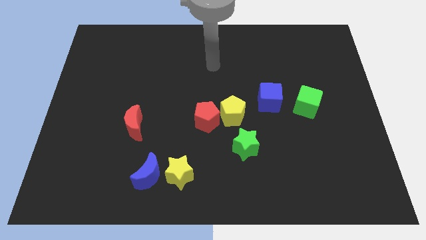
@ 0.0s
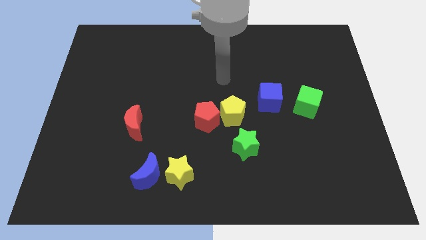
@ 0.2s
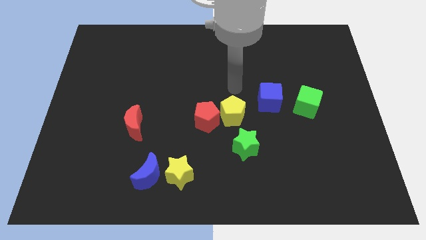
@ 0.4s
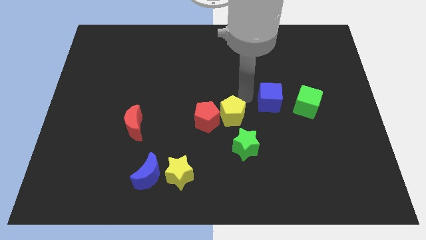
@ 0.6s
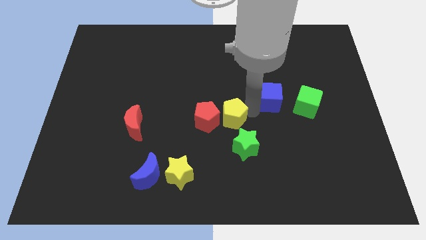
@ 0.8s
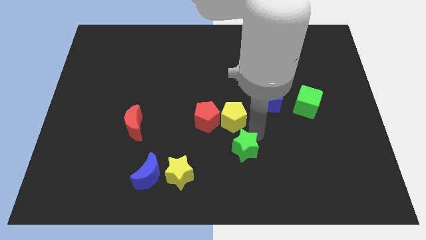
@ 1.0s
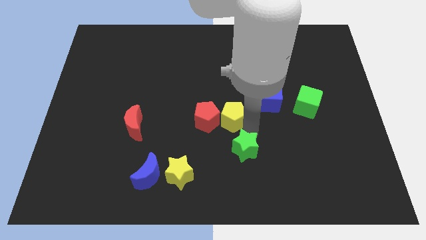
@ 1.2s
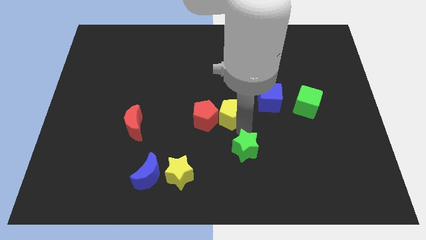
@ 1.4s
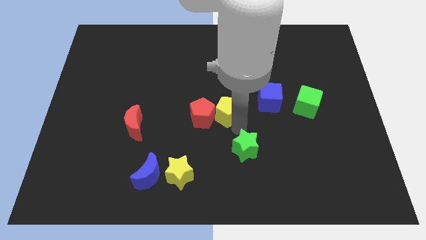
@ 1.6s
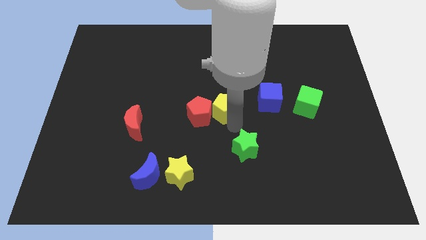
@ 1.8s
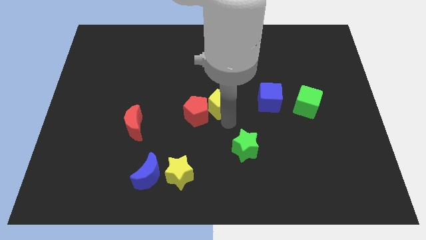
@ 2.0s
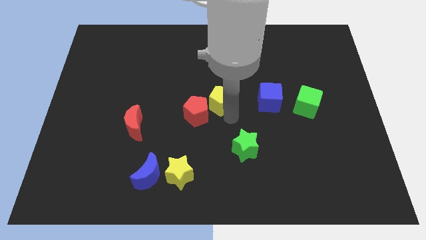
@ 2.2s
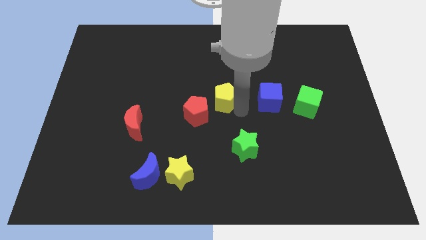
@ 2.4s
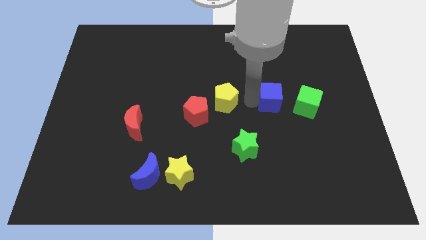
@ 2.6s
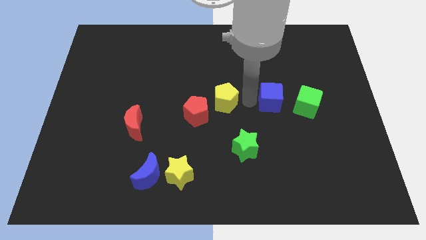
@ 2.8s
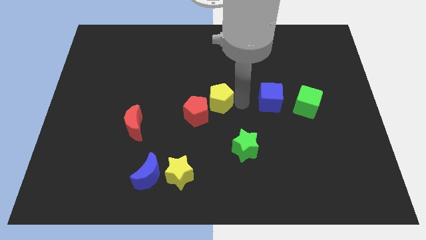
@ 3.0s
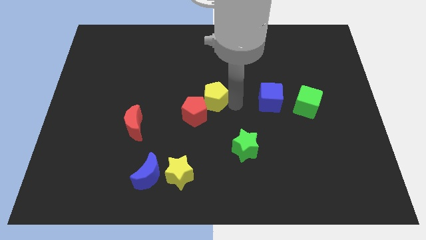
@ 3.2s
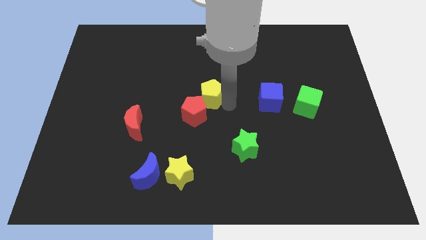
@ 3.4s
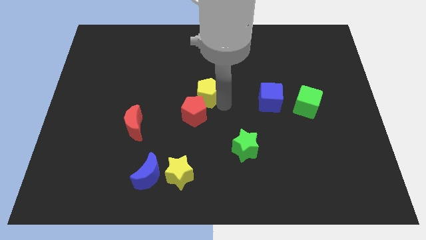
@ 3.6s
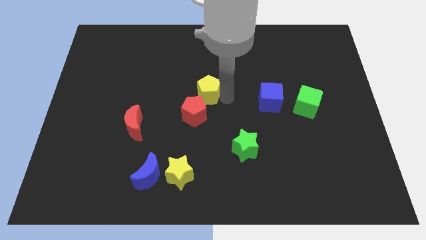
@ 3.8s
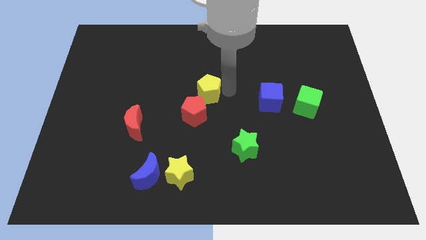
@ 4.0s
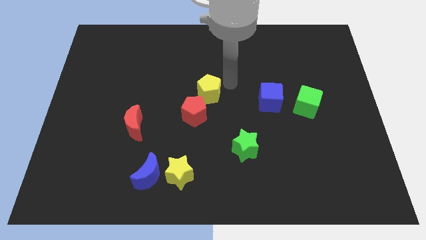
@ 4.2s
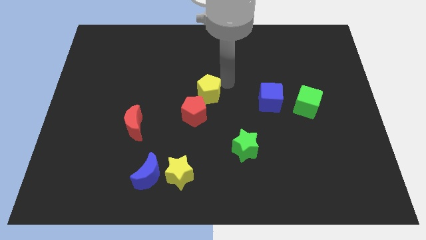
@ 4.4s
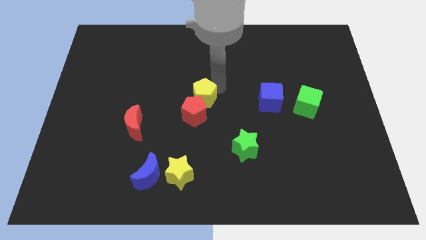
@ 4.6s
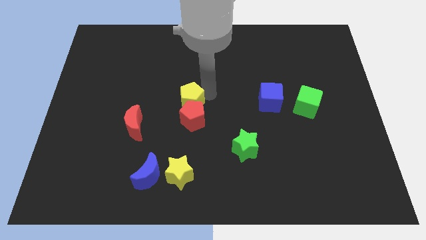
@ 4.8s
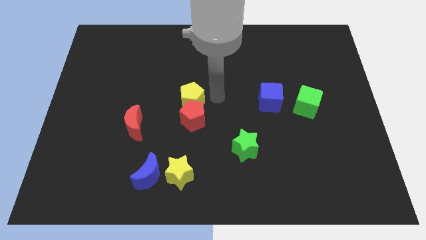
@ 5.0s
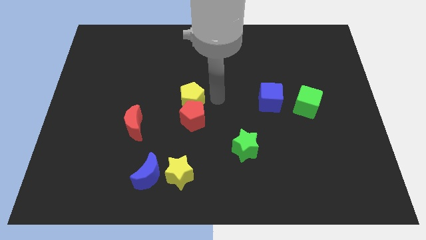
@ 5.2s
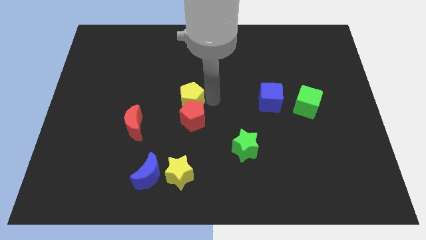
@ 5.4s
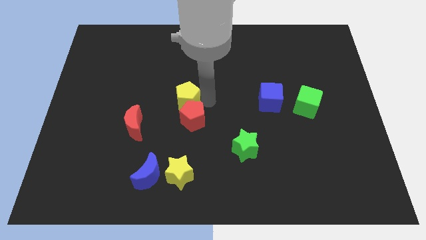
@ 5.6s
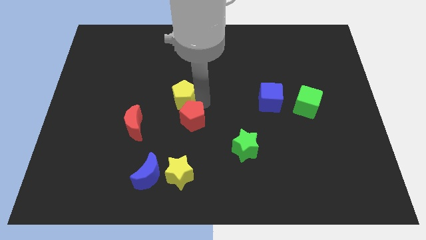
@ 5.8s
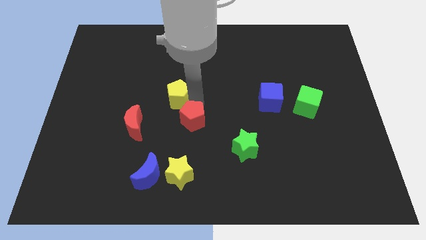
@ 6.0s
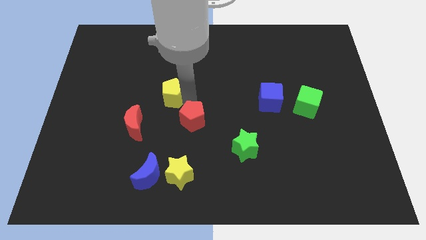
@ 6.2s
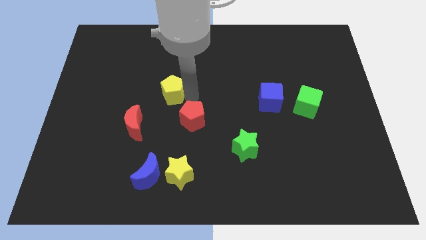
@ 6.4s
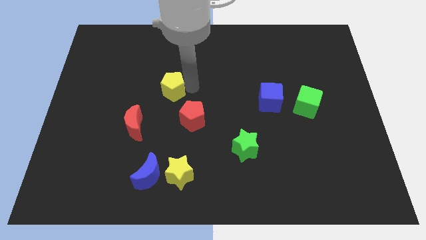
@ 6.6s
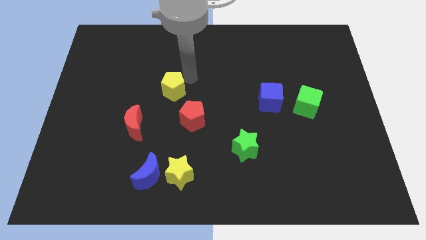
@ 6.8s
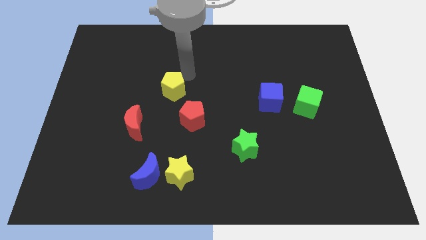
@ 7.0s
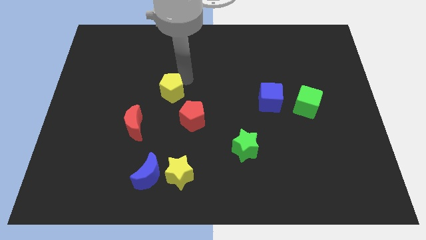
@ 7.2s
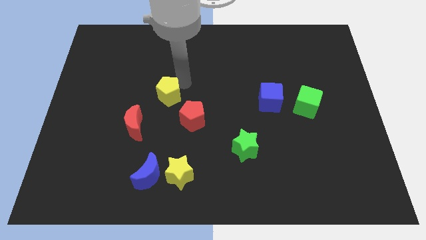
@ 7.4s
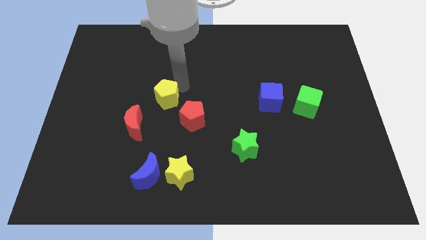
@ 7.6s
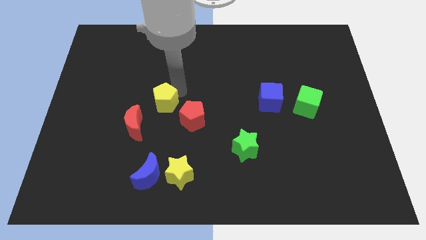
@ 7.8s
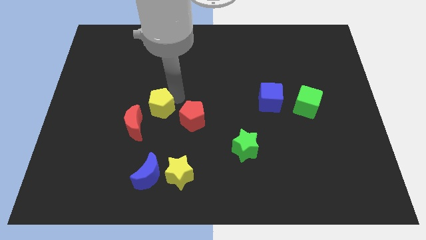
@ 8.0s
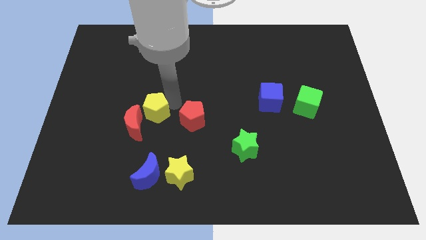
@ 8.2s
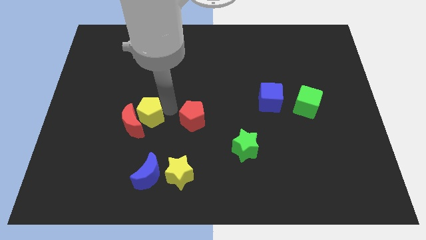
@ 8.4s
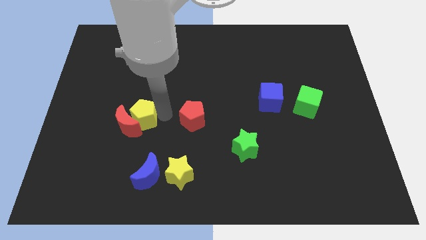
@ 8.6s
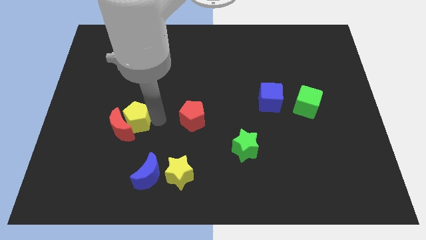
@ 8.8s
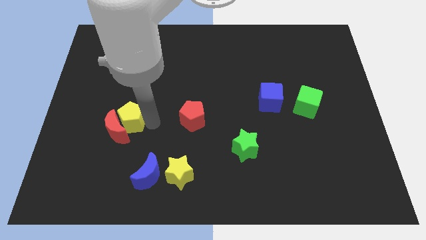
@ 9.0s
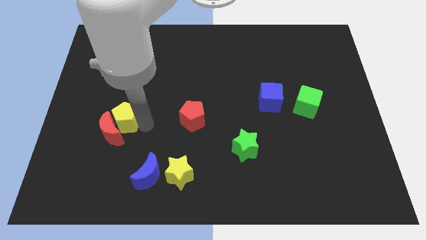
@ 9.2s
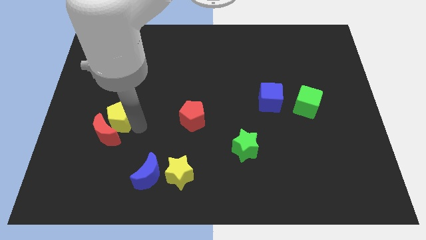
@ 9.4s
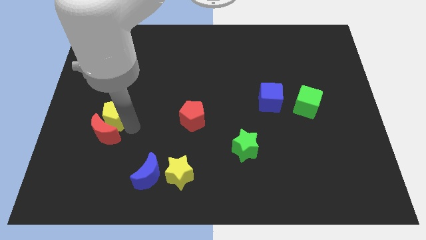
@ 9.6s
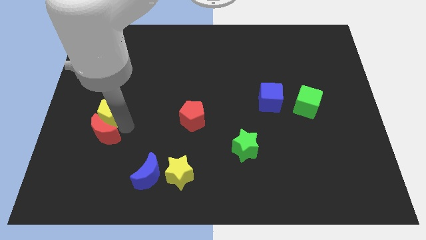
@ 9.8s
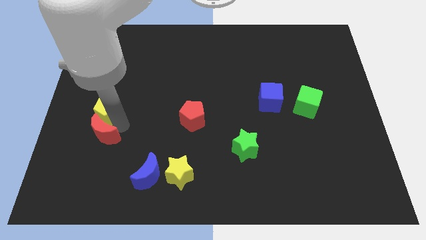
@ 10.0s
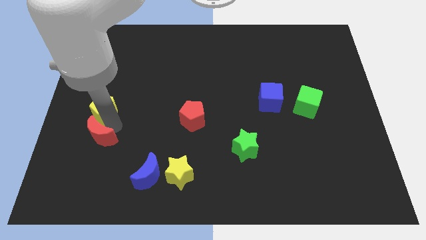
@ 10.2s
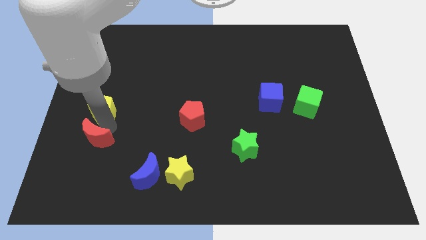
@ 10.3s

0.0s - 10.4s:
put the yellow pentagon to the left side

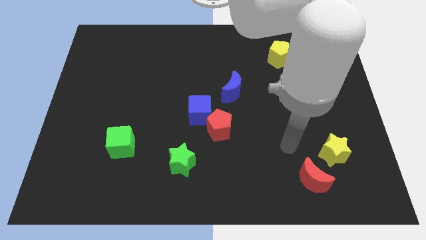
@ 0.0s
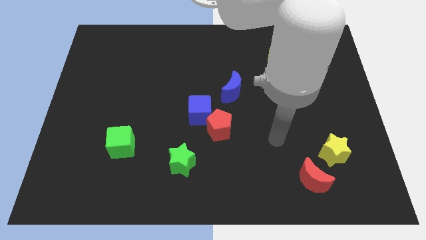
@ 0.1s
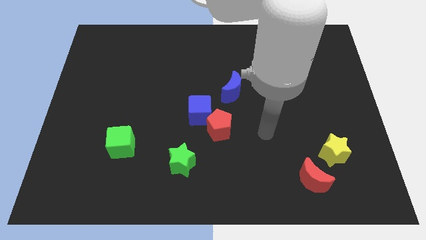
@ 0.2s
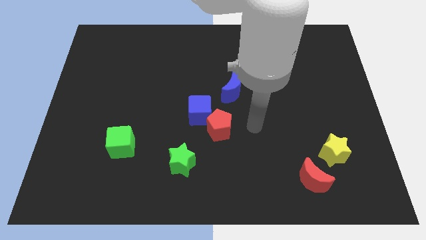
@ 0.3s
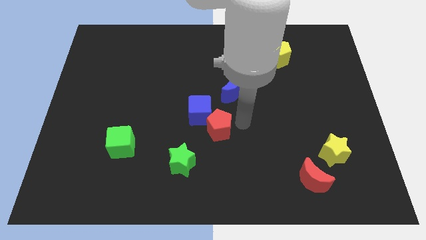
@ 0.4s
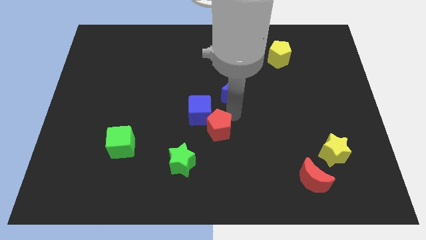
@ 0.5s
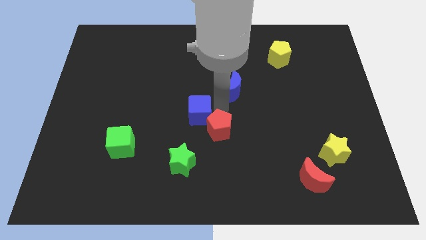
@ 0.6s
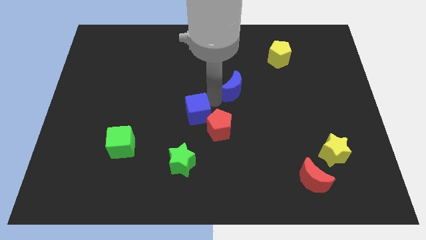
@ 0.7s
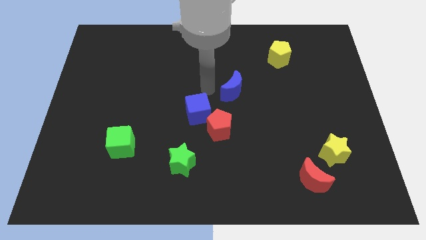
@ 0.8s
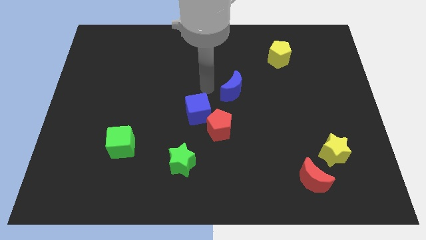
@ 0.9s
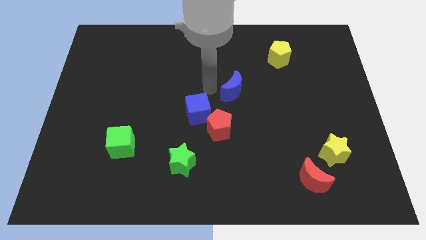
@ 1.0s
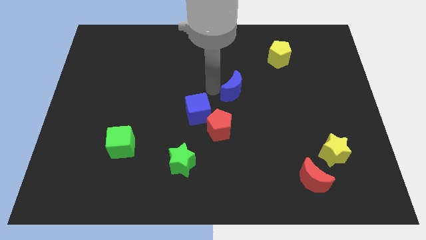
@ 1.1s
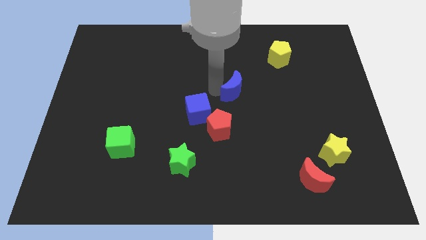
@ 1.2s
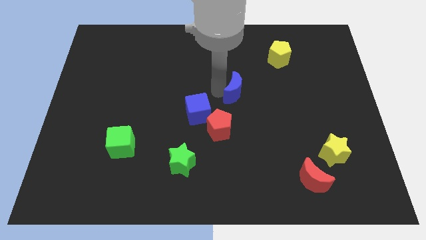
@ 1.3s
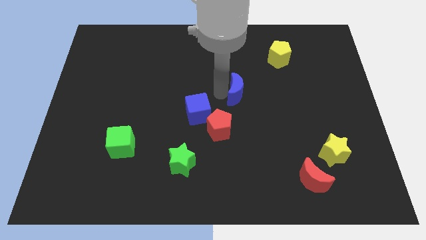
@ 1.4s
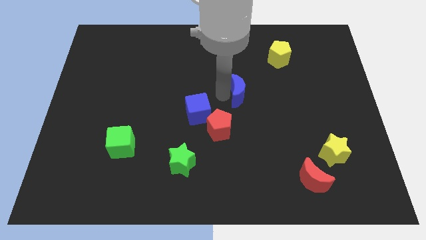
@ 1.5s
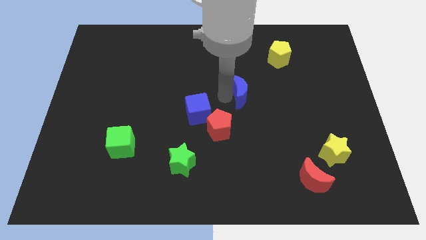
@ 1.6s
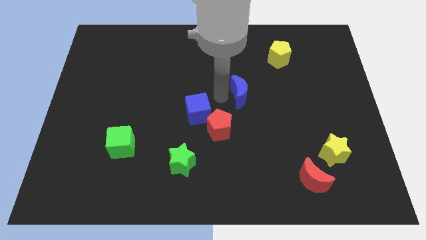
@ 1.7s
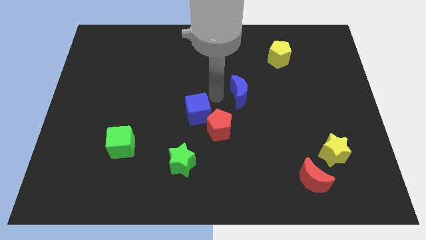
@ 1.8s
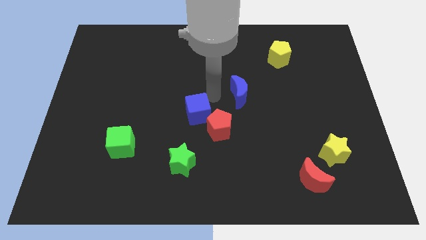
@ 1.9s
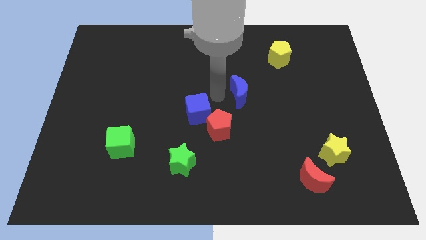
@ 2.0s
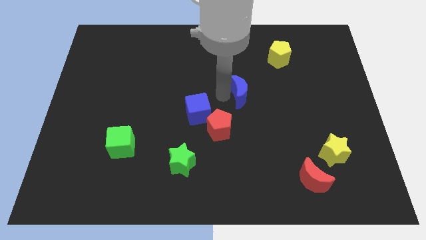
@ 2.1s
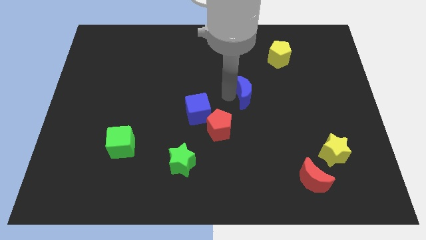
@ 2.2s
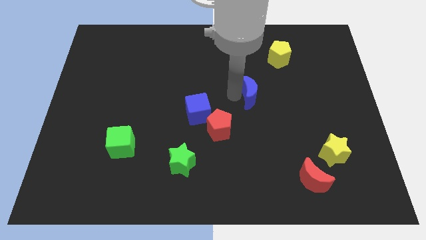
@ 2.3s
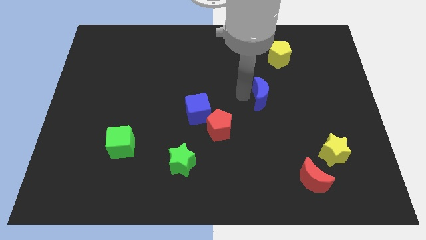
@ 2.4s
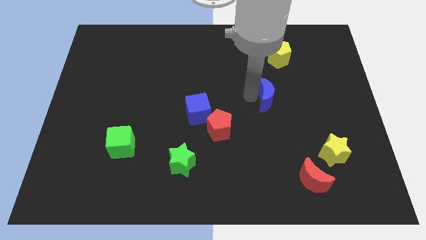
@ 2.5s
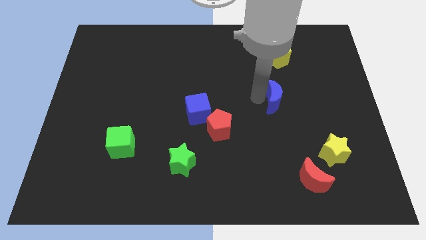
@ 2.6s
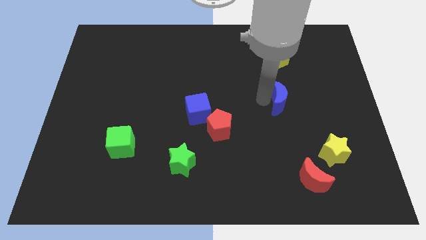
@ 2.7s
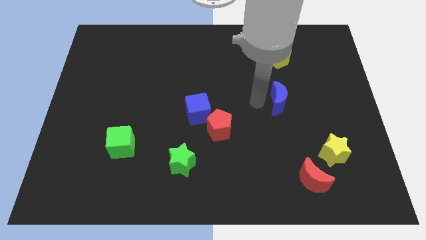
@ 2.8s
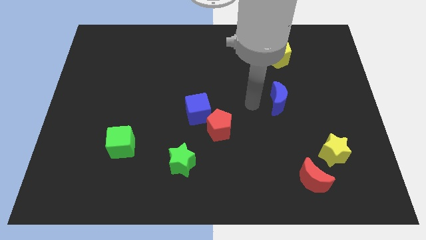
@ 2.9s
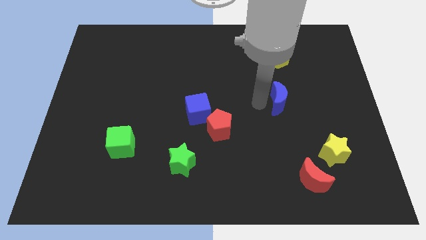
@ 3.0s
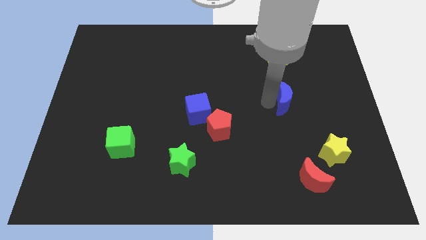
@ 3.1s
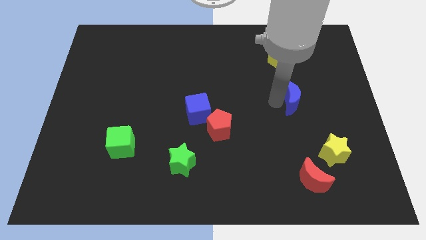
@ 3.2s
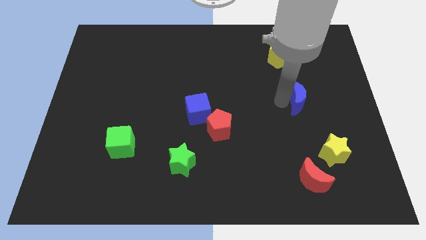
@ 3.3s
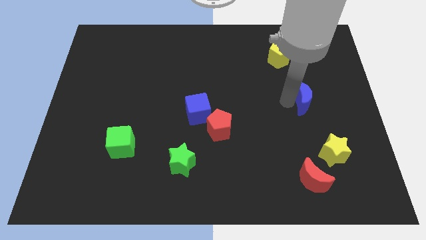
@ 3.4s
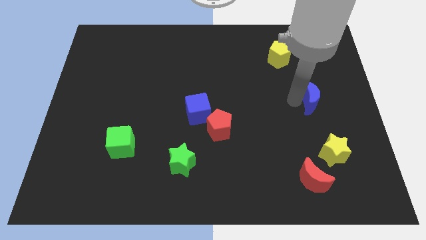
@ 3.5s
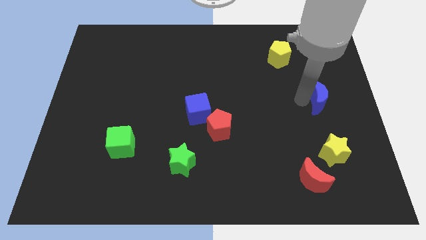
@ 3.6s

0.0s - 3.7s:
slide the blue moon to the center right
